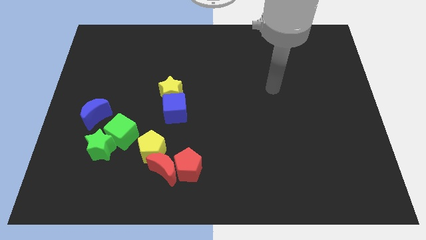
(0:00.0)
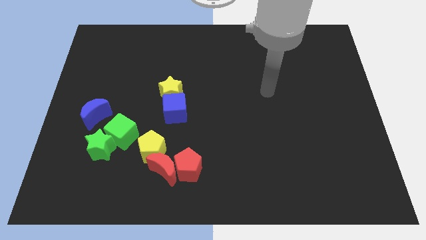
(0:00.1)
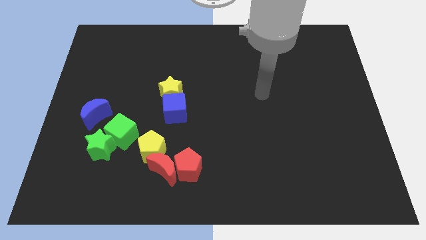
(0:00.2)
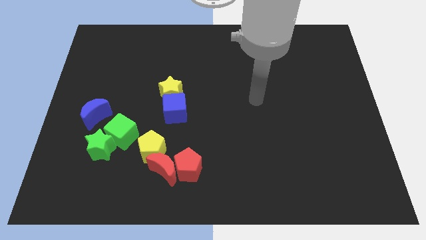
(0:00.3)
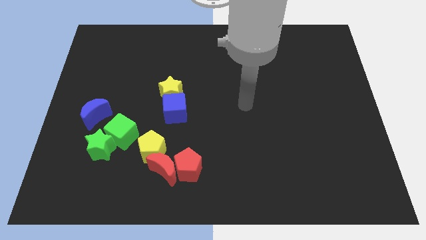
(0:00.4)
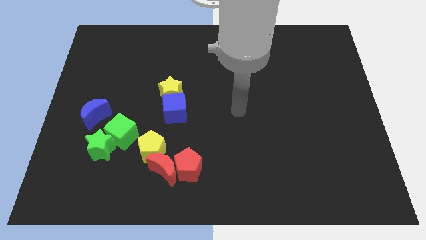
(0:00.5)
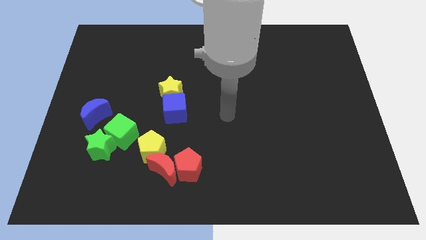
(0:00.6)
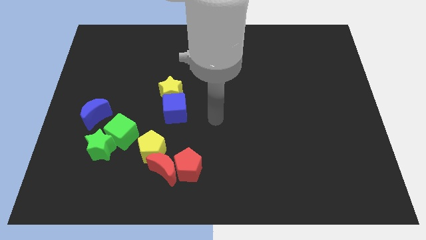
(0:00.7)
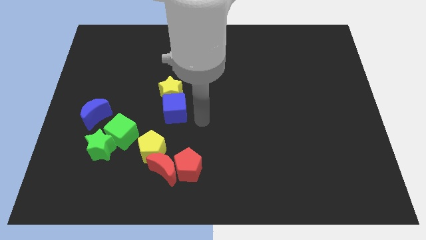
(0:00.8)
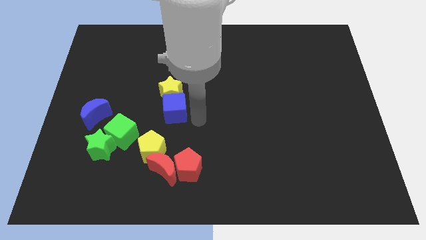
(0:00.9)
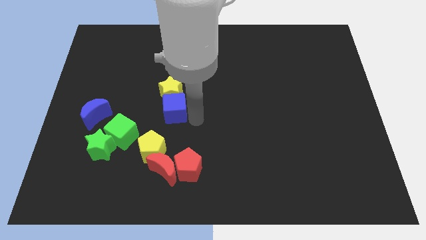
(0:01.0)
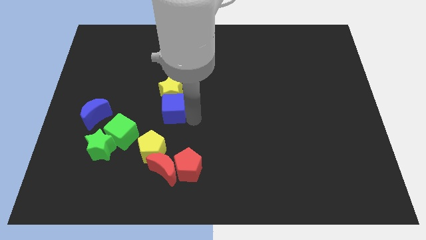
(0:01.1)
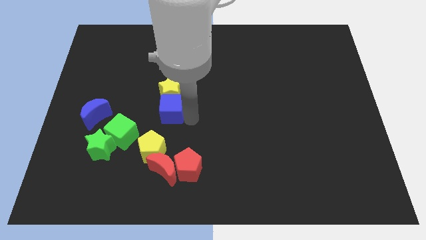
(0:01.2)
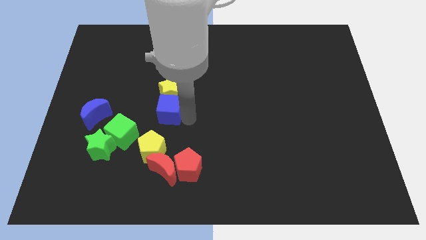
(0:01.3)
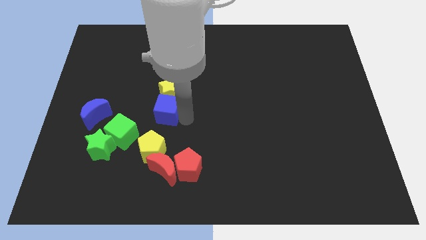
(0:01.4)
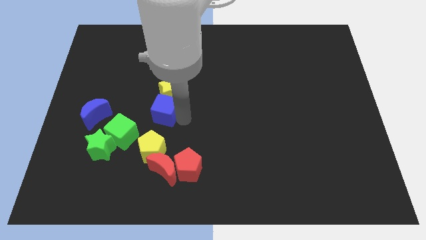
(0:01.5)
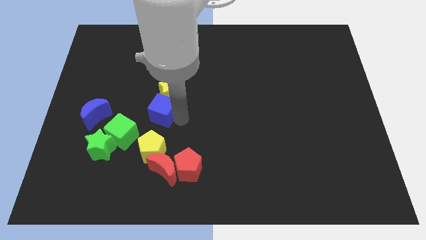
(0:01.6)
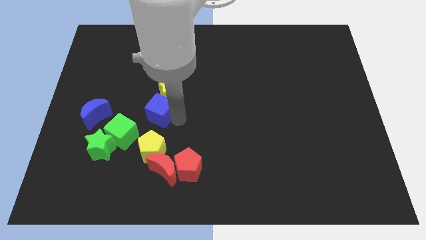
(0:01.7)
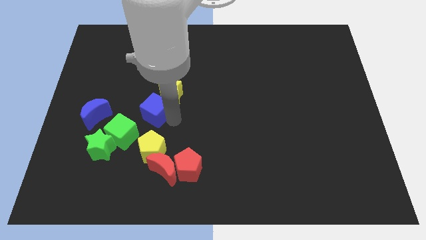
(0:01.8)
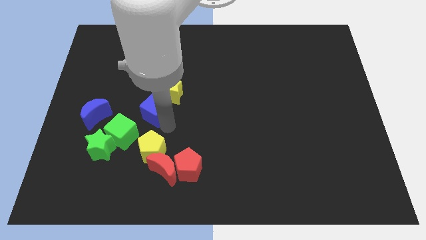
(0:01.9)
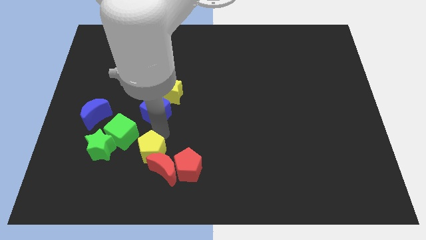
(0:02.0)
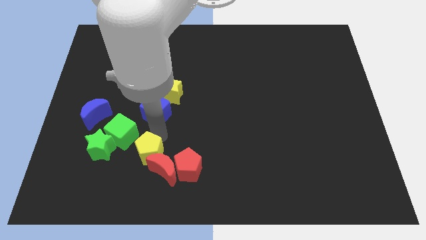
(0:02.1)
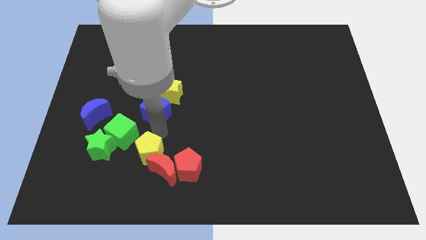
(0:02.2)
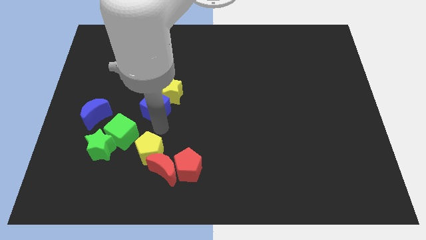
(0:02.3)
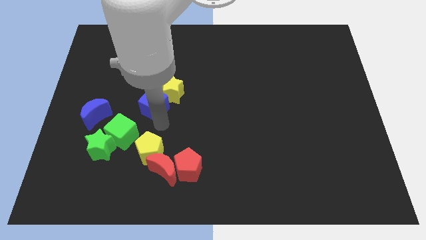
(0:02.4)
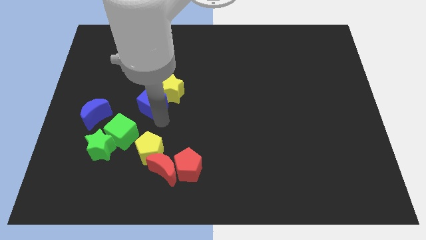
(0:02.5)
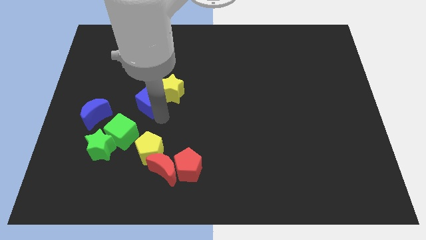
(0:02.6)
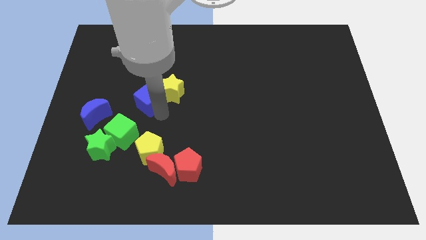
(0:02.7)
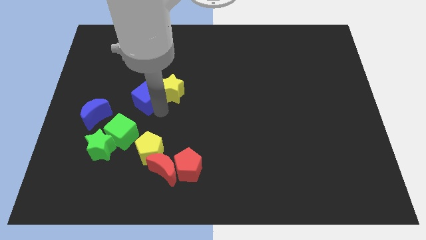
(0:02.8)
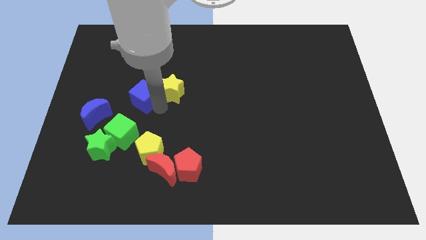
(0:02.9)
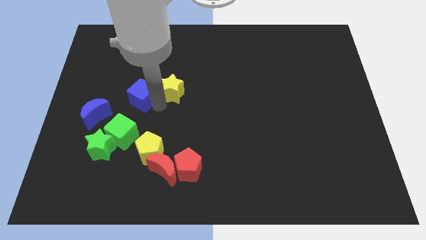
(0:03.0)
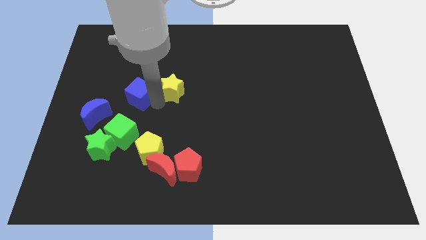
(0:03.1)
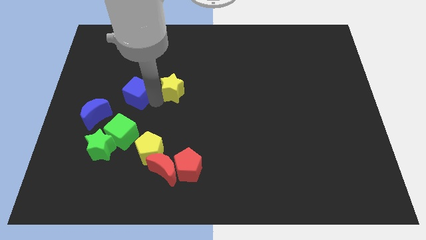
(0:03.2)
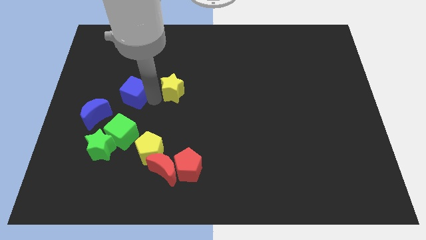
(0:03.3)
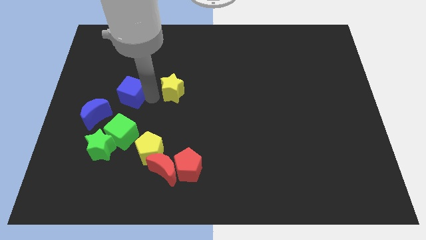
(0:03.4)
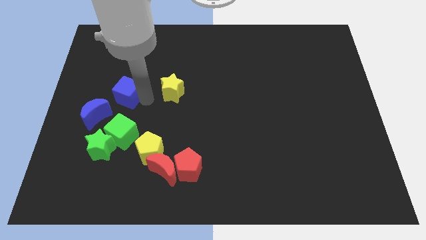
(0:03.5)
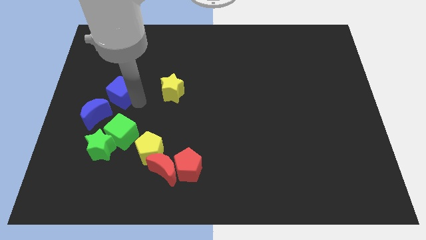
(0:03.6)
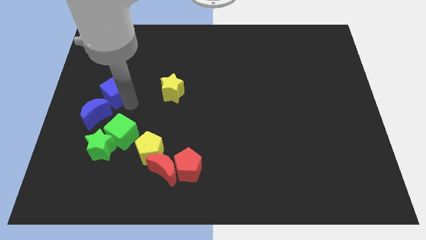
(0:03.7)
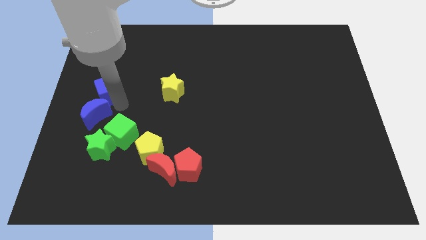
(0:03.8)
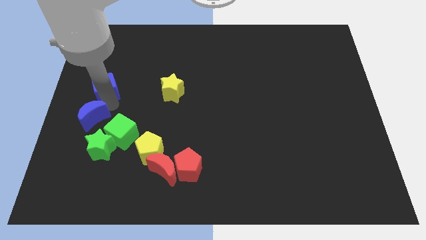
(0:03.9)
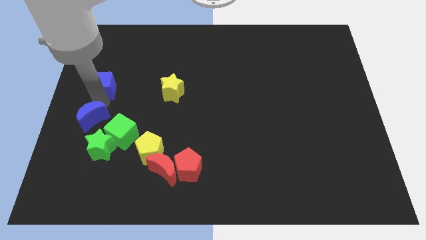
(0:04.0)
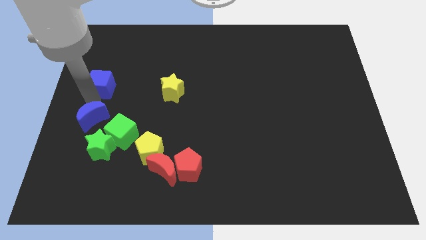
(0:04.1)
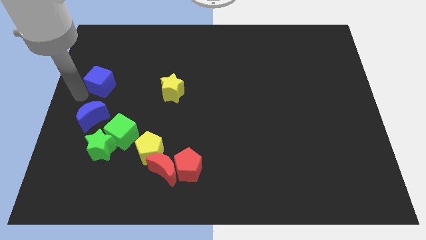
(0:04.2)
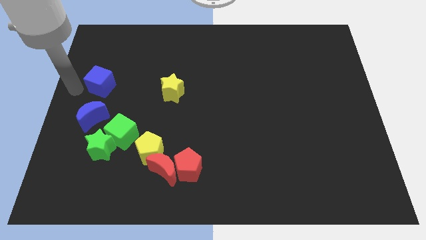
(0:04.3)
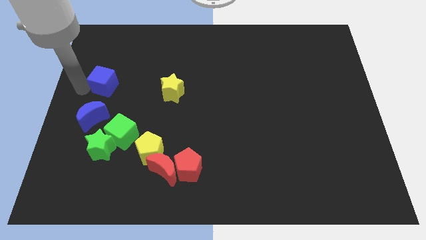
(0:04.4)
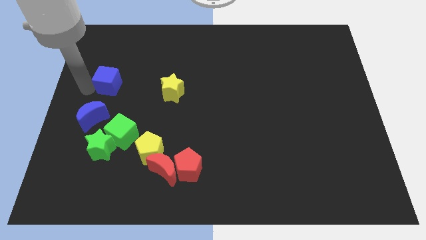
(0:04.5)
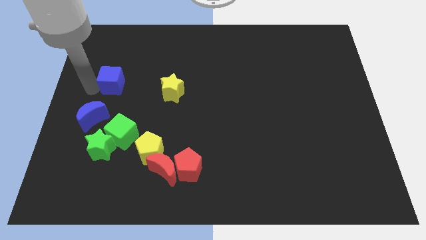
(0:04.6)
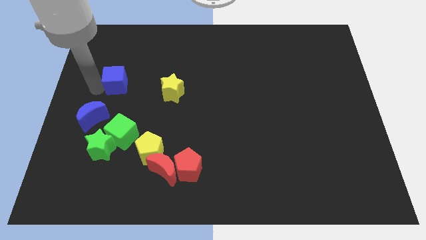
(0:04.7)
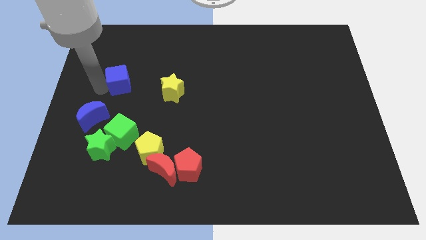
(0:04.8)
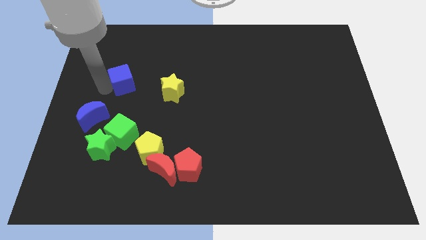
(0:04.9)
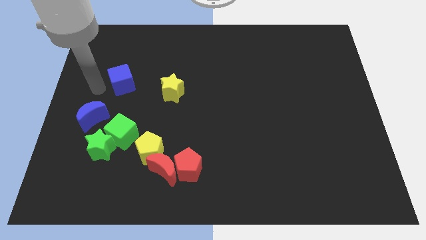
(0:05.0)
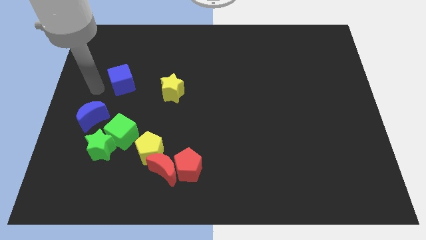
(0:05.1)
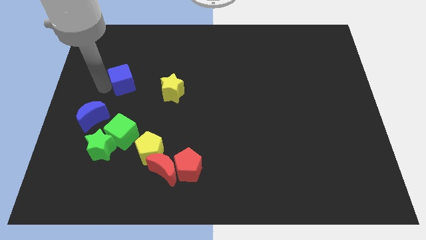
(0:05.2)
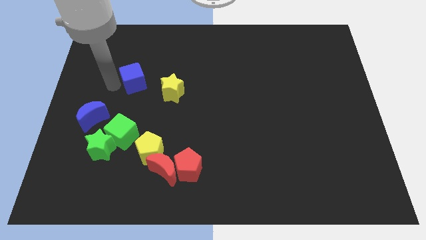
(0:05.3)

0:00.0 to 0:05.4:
put the blue cube to the top left of the yellow star
